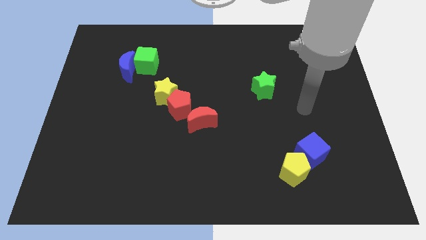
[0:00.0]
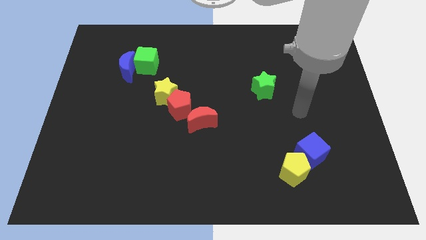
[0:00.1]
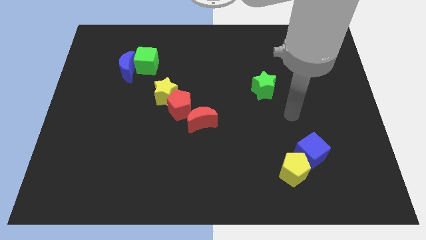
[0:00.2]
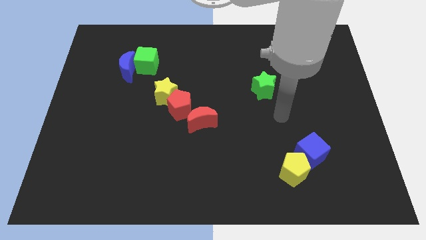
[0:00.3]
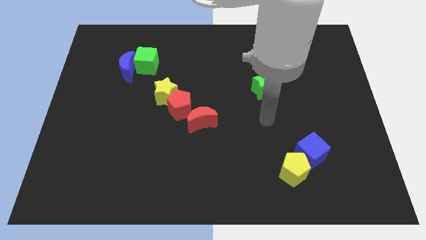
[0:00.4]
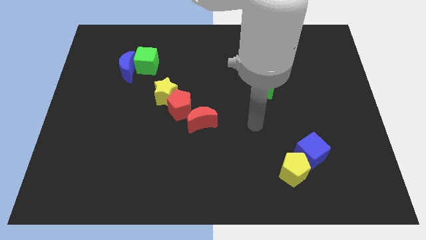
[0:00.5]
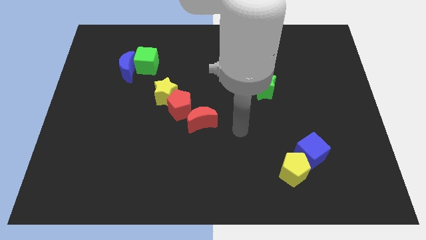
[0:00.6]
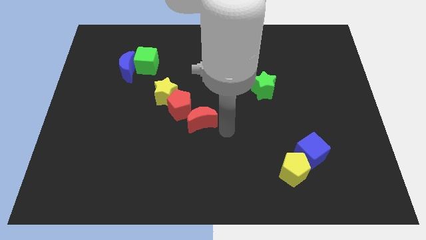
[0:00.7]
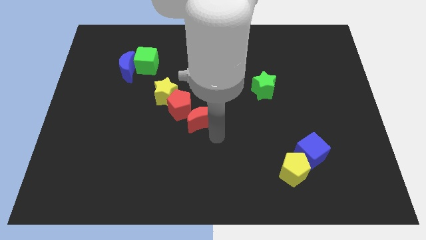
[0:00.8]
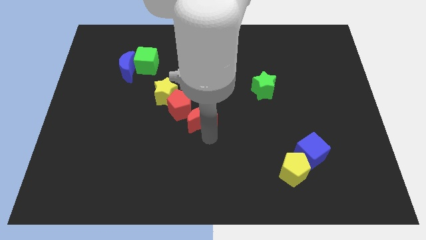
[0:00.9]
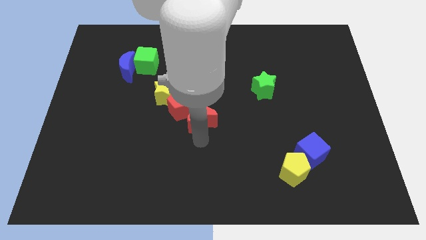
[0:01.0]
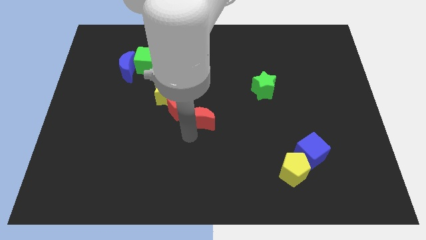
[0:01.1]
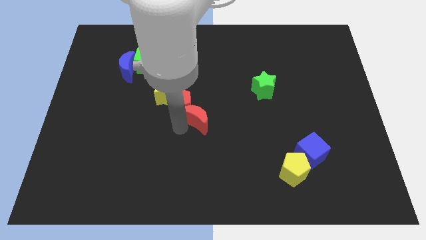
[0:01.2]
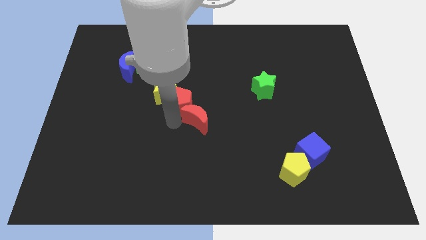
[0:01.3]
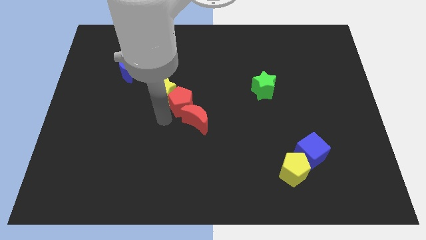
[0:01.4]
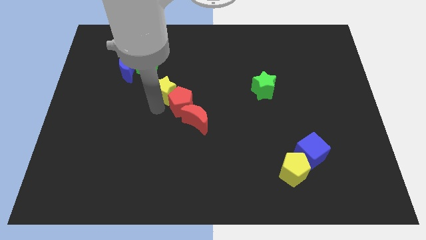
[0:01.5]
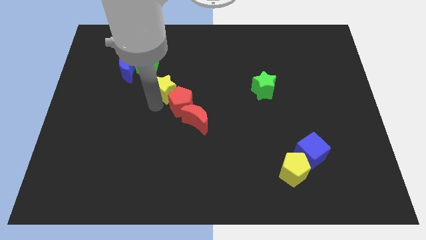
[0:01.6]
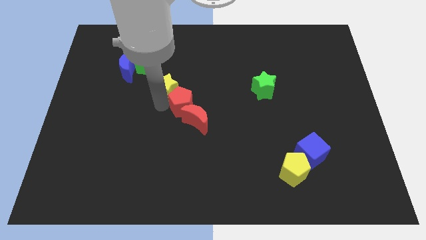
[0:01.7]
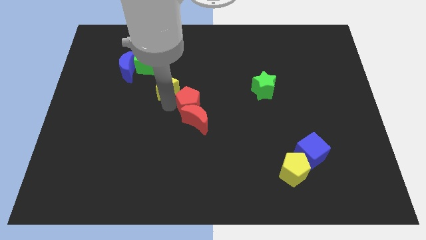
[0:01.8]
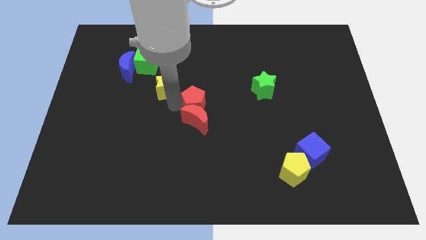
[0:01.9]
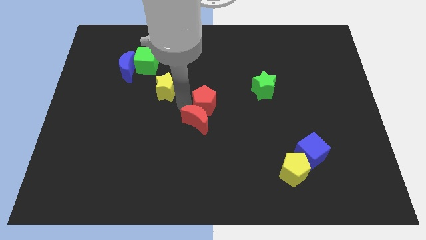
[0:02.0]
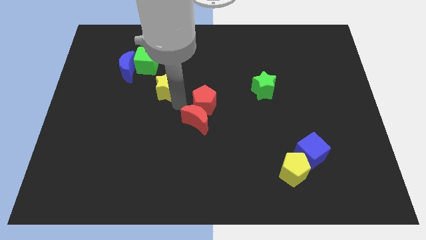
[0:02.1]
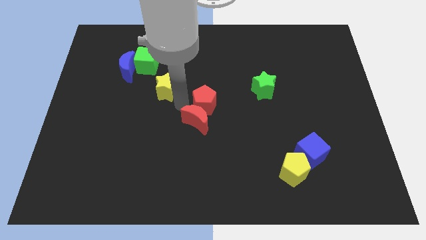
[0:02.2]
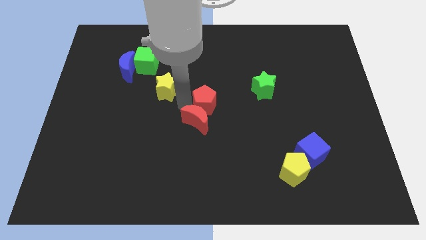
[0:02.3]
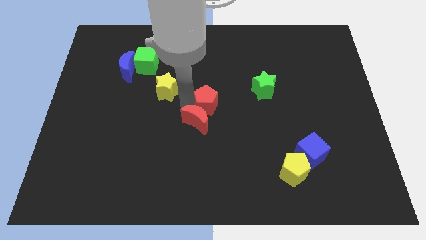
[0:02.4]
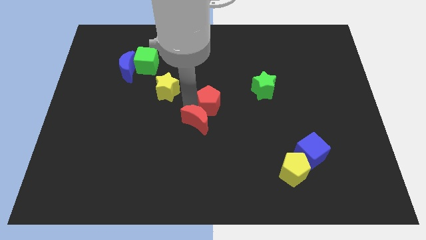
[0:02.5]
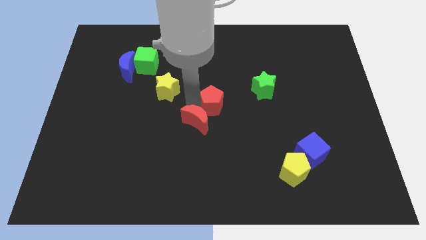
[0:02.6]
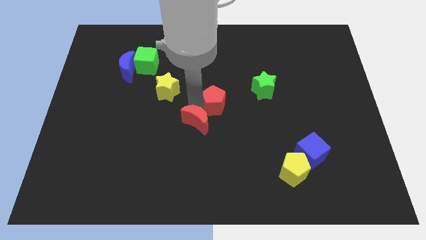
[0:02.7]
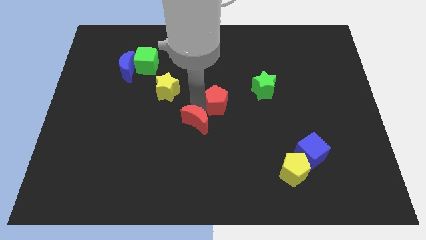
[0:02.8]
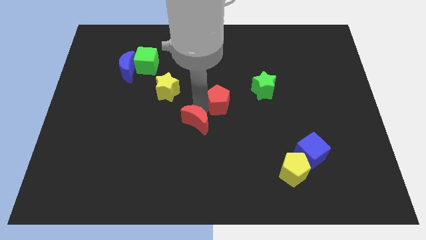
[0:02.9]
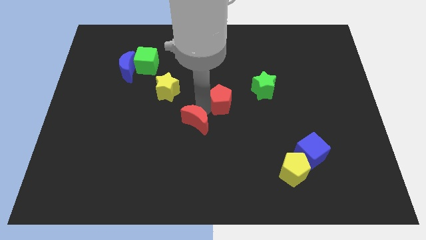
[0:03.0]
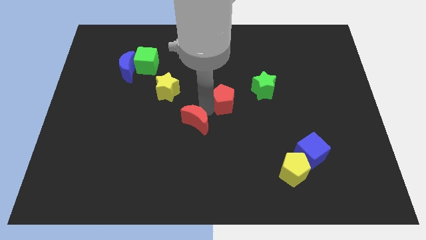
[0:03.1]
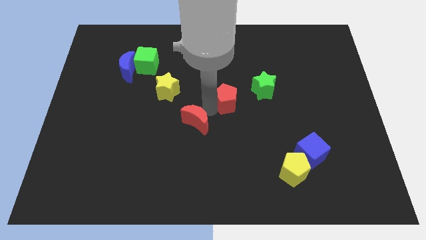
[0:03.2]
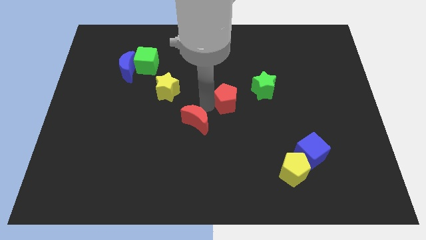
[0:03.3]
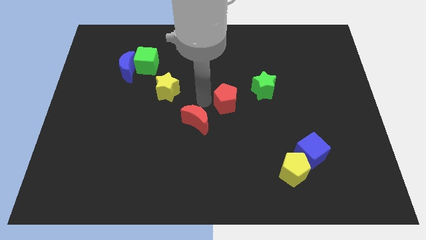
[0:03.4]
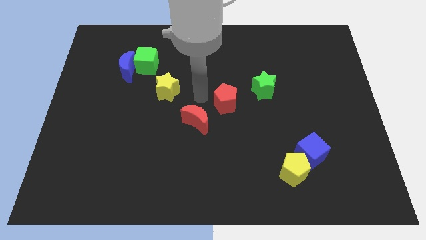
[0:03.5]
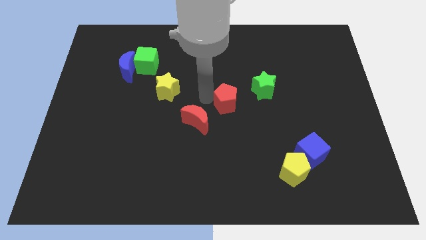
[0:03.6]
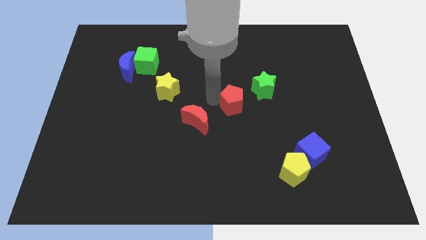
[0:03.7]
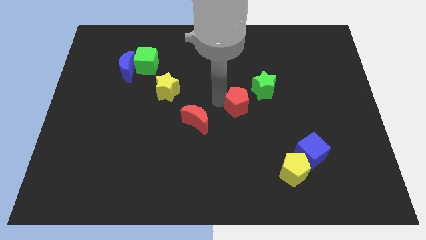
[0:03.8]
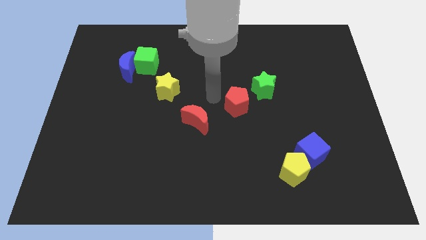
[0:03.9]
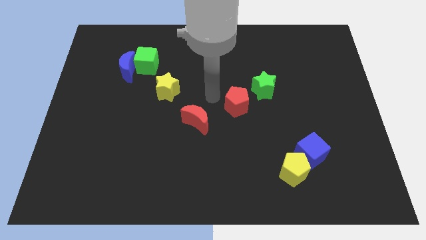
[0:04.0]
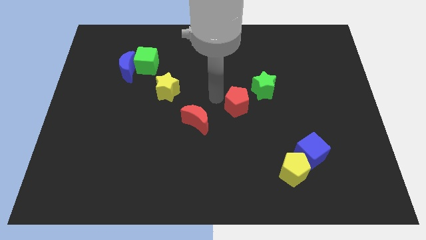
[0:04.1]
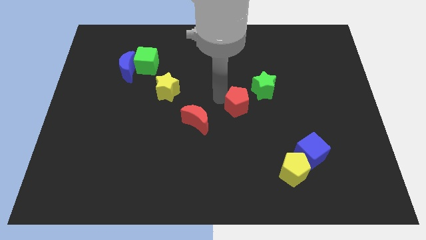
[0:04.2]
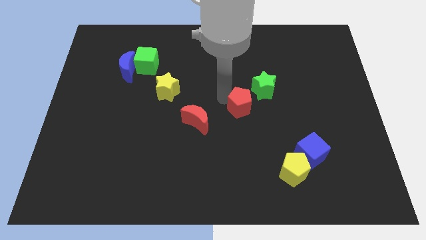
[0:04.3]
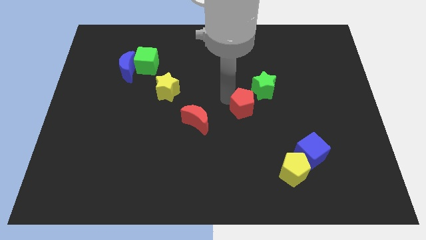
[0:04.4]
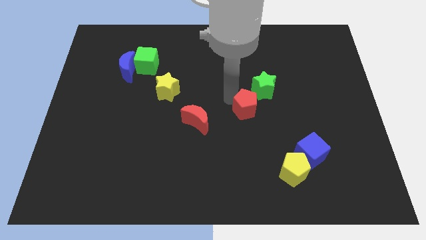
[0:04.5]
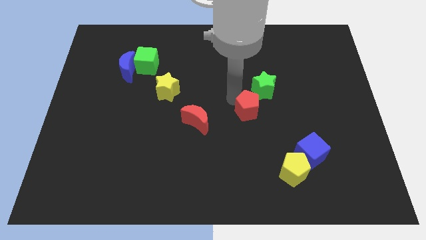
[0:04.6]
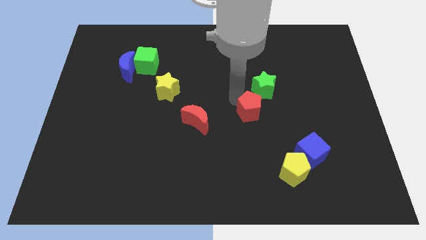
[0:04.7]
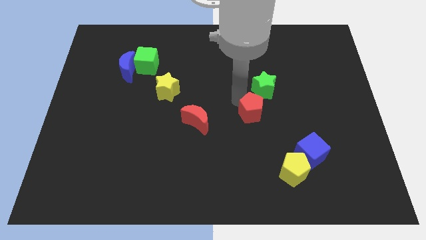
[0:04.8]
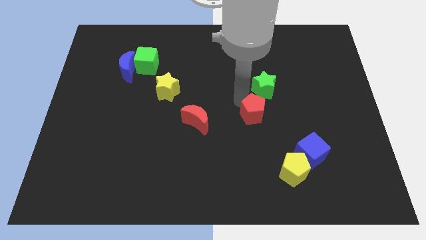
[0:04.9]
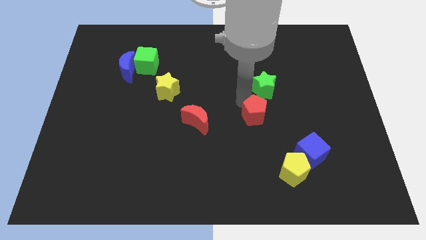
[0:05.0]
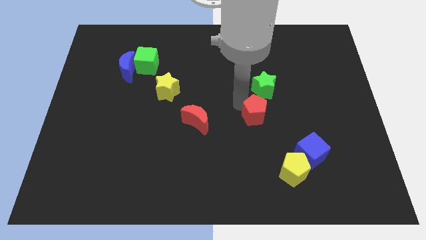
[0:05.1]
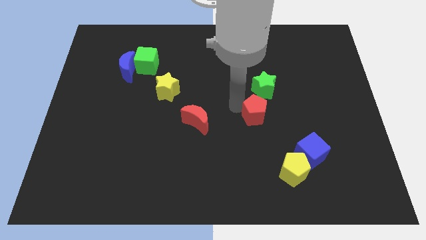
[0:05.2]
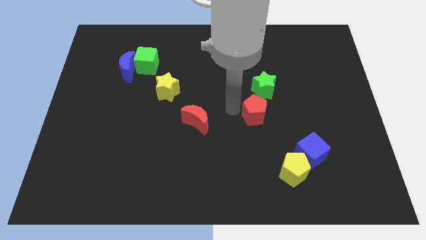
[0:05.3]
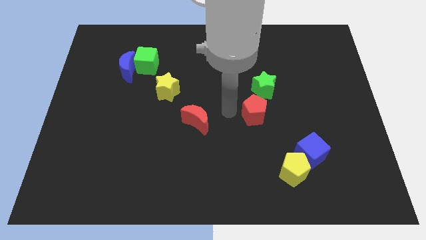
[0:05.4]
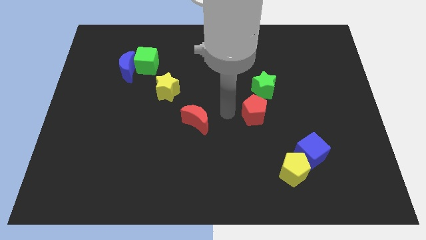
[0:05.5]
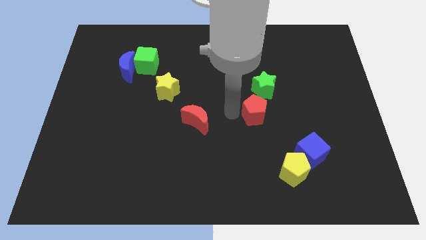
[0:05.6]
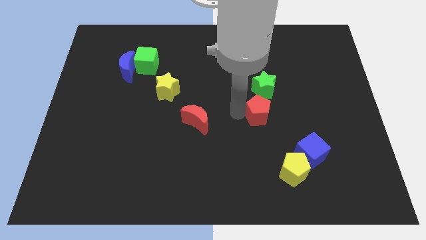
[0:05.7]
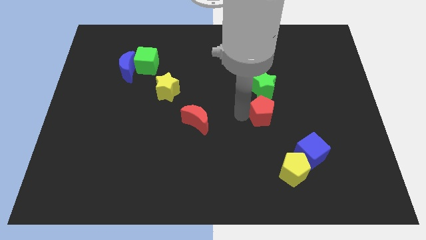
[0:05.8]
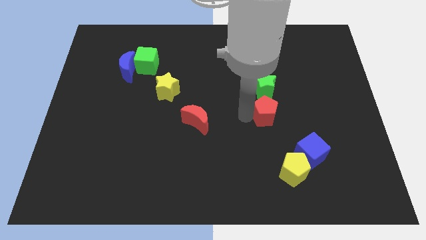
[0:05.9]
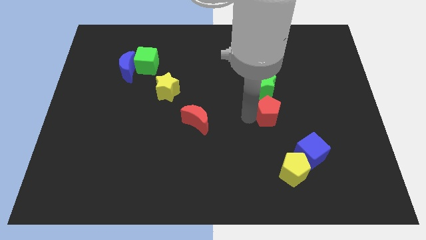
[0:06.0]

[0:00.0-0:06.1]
push the red pentagon to the right

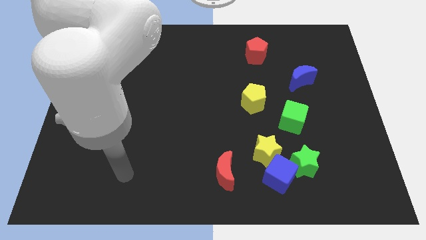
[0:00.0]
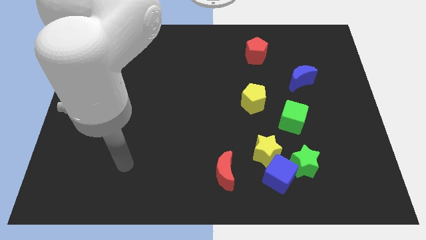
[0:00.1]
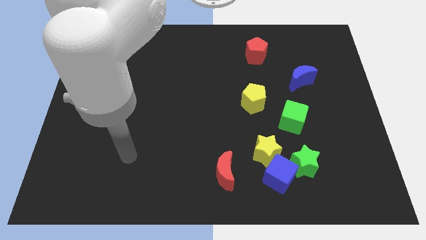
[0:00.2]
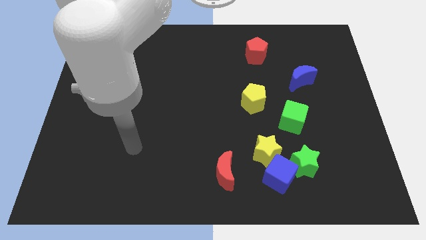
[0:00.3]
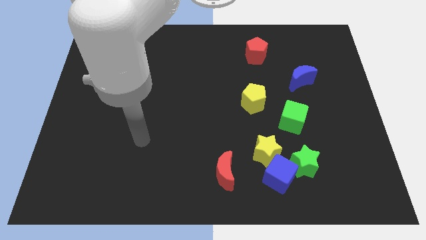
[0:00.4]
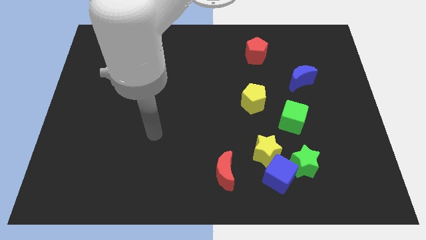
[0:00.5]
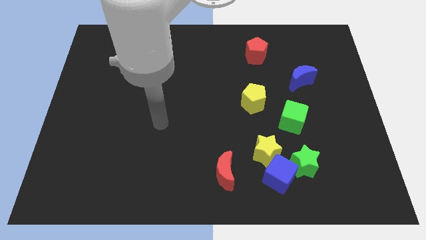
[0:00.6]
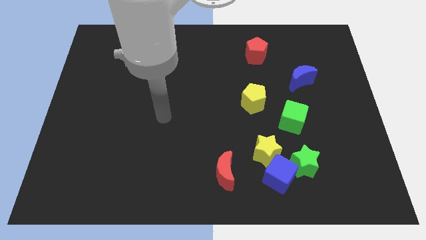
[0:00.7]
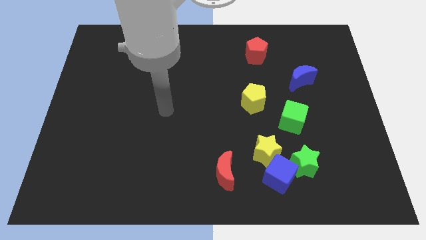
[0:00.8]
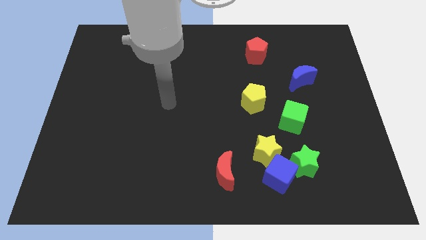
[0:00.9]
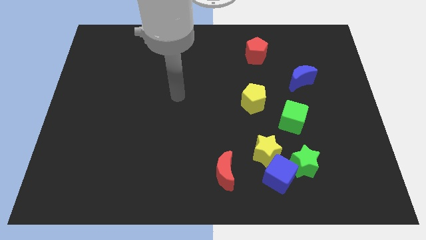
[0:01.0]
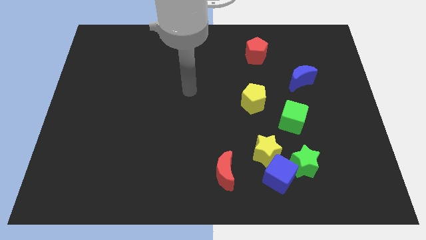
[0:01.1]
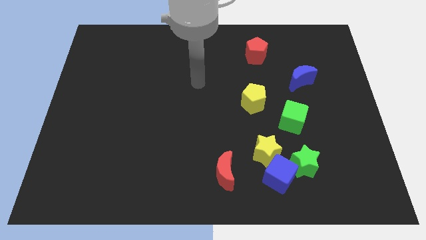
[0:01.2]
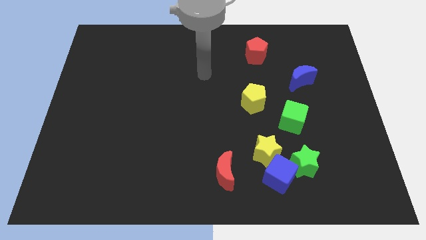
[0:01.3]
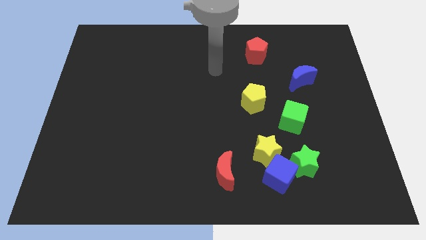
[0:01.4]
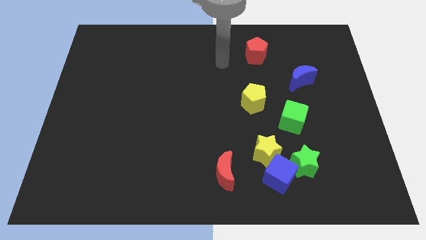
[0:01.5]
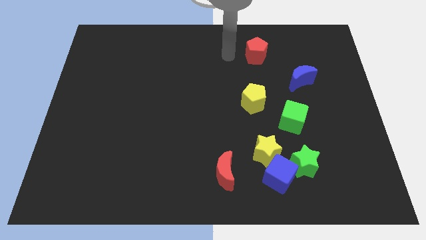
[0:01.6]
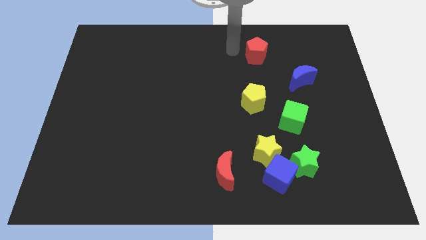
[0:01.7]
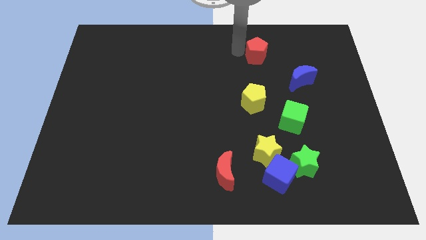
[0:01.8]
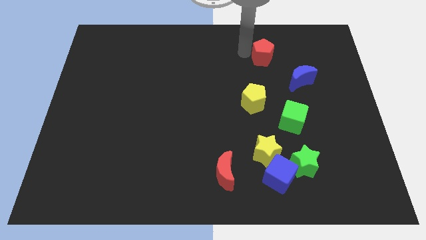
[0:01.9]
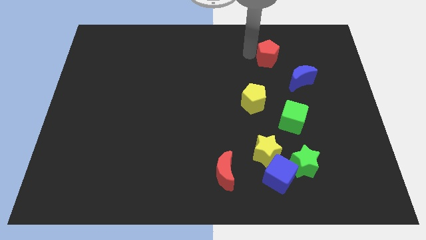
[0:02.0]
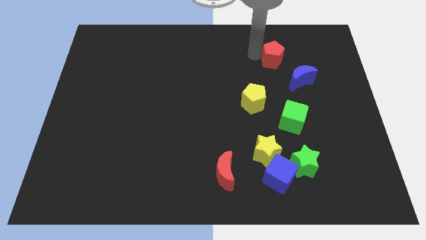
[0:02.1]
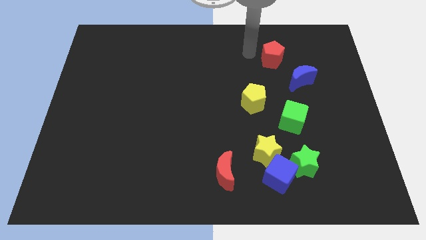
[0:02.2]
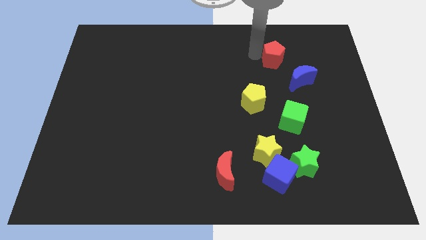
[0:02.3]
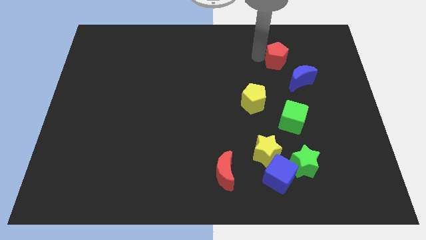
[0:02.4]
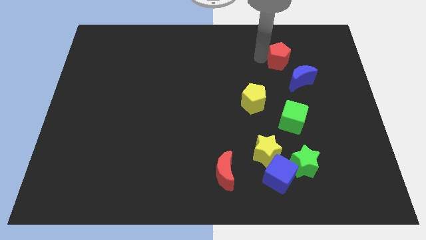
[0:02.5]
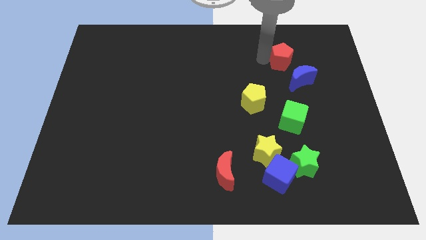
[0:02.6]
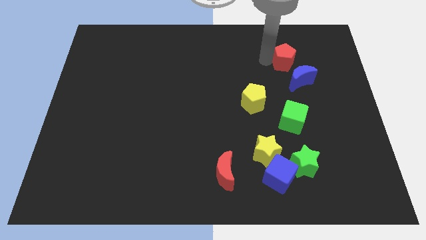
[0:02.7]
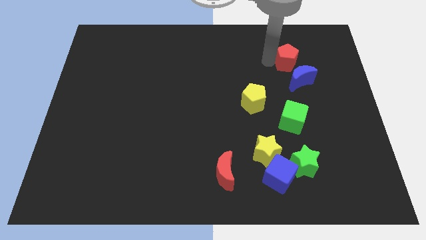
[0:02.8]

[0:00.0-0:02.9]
slide the red pentagon diagonally down and to the right a little
